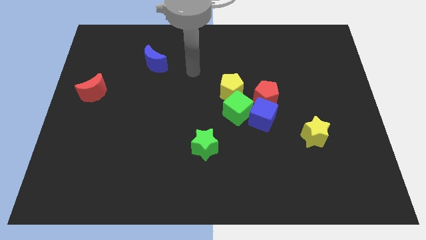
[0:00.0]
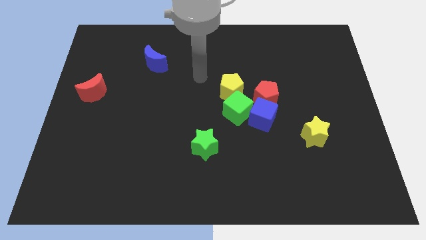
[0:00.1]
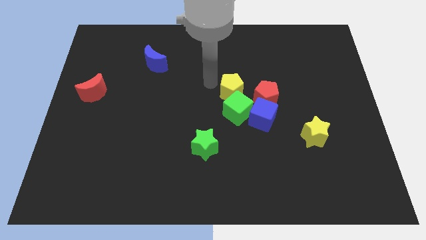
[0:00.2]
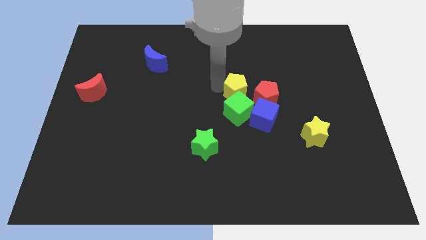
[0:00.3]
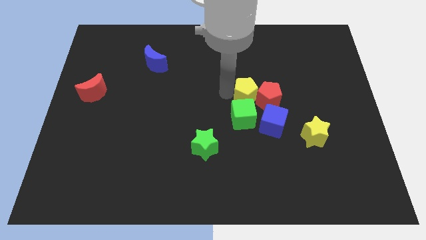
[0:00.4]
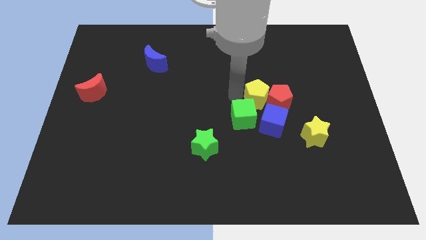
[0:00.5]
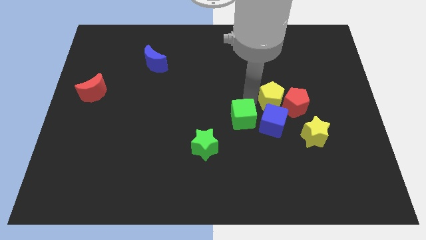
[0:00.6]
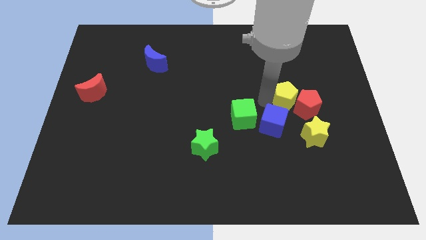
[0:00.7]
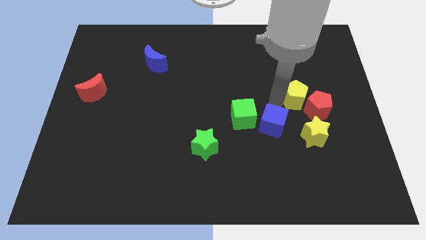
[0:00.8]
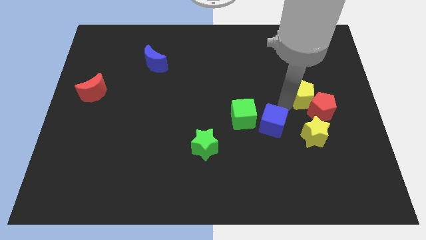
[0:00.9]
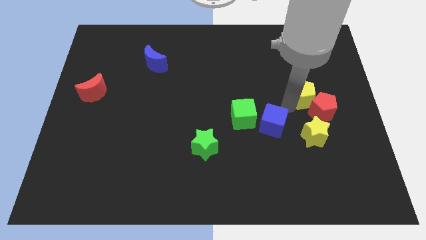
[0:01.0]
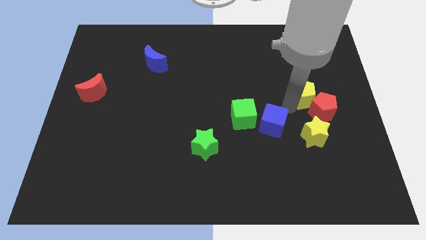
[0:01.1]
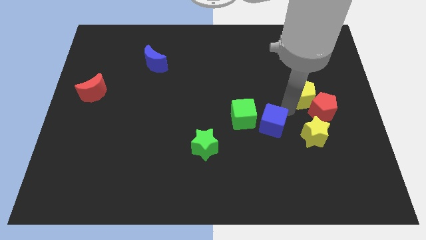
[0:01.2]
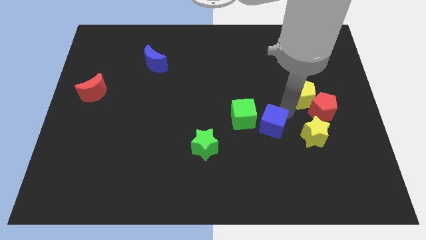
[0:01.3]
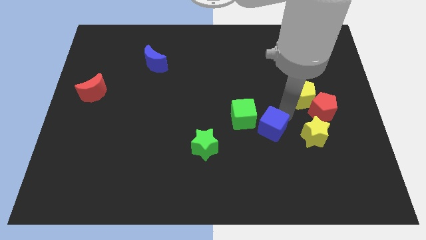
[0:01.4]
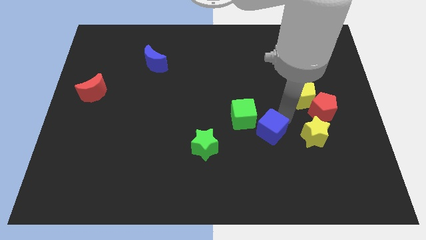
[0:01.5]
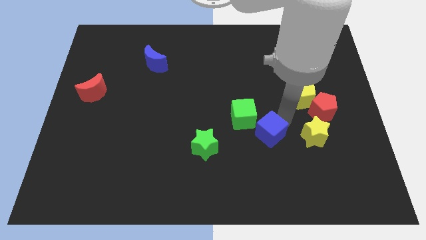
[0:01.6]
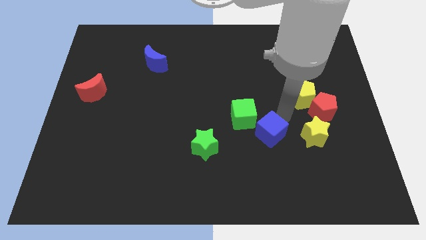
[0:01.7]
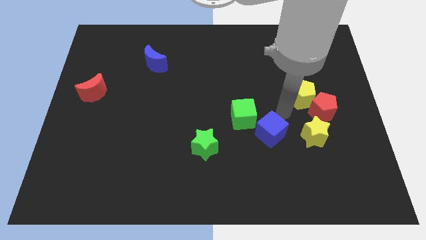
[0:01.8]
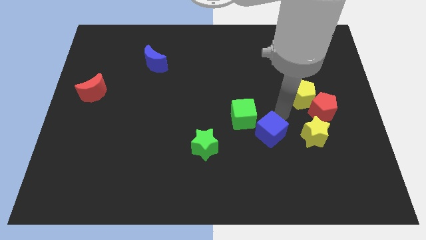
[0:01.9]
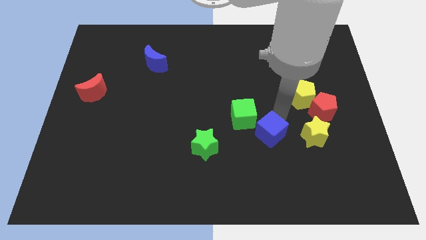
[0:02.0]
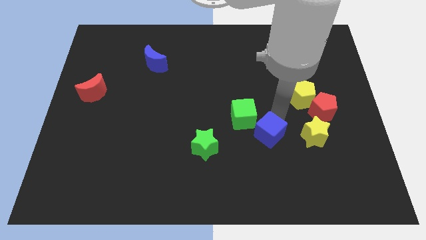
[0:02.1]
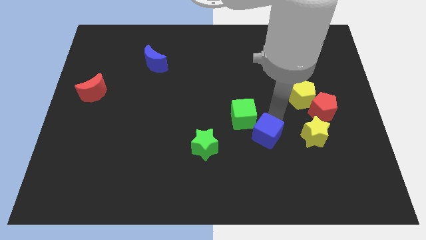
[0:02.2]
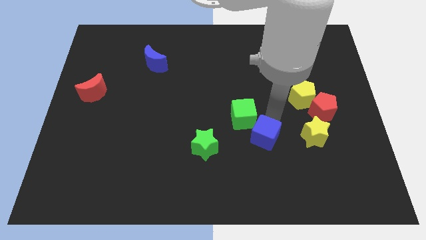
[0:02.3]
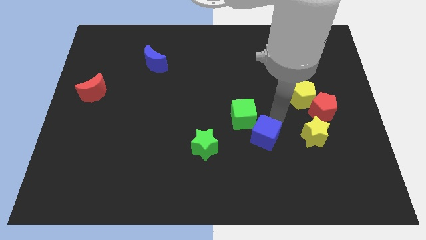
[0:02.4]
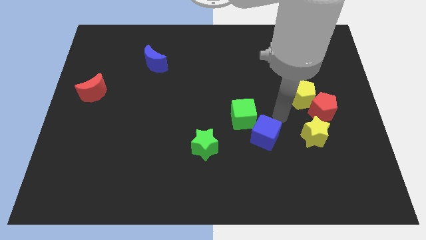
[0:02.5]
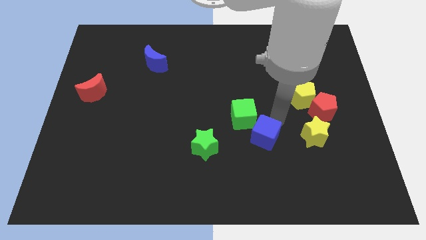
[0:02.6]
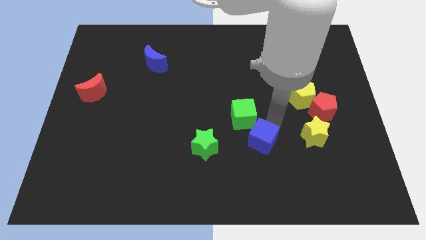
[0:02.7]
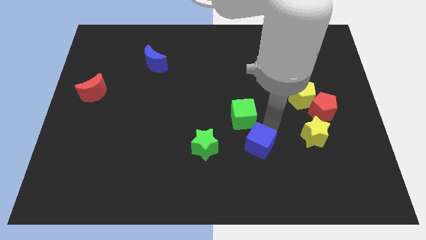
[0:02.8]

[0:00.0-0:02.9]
move the blue cube away from the red pentagon and green cube

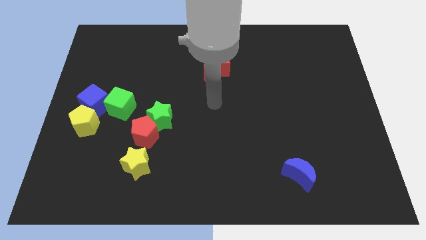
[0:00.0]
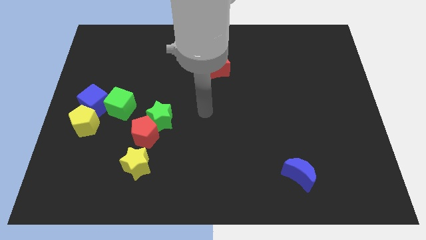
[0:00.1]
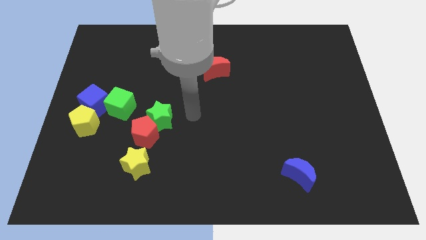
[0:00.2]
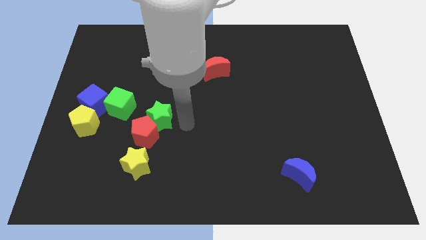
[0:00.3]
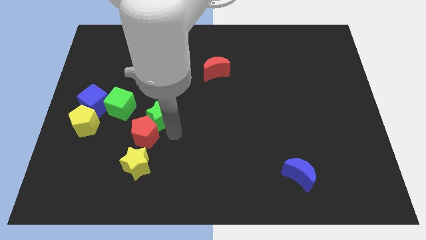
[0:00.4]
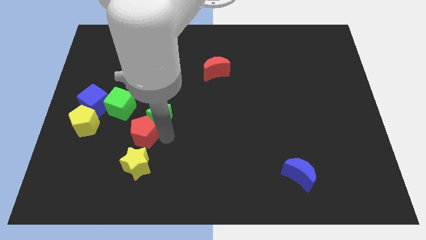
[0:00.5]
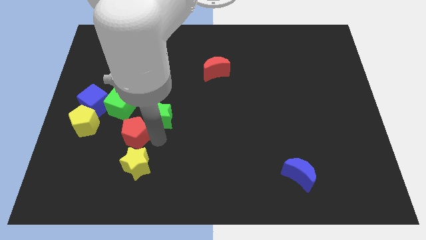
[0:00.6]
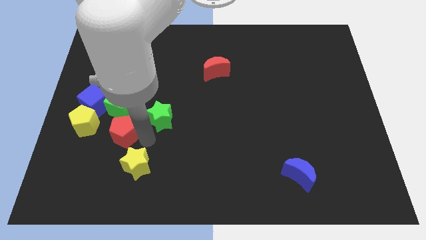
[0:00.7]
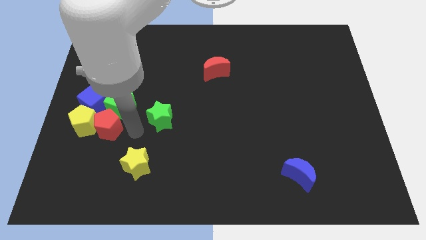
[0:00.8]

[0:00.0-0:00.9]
pull the green star apart from the red pentagon

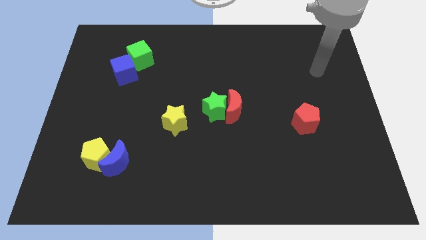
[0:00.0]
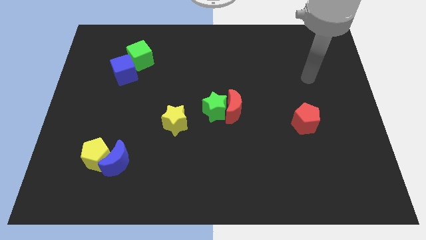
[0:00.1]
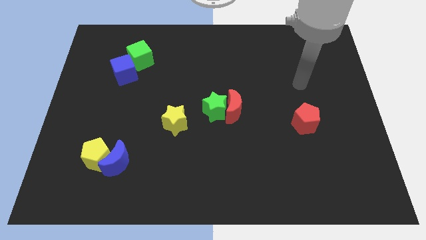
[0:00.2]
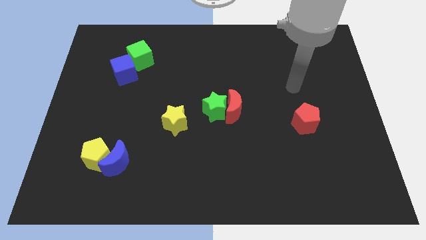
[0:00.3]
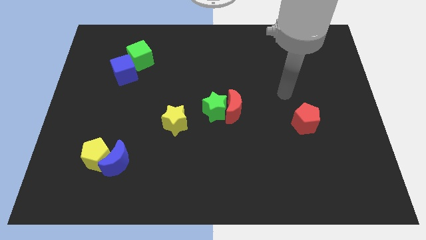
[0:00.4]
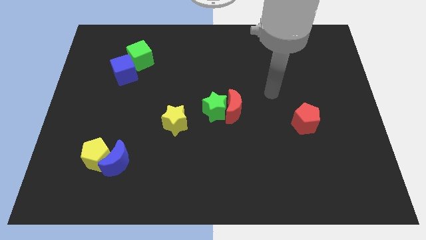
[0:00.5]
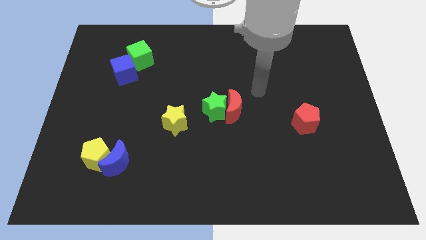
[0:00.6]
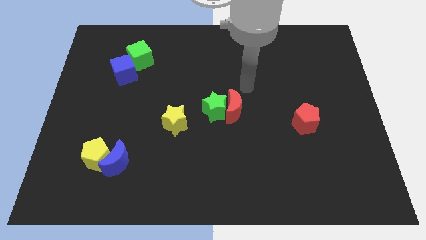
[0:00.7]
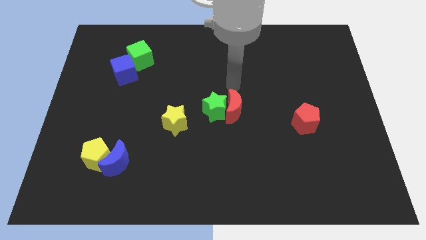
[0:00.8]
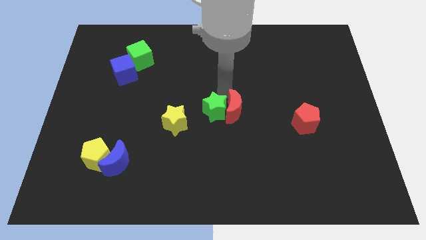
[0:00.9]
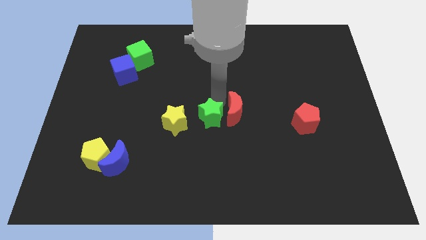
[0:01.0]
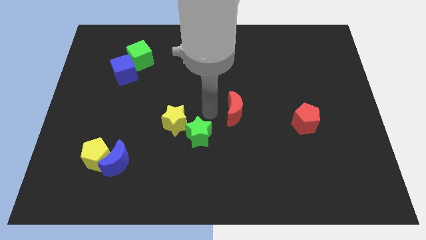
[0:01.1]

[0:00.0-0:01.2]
pull the red moon apart from the green star

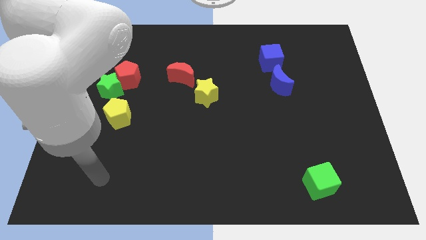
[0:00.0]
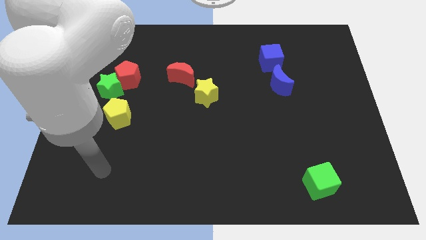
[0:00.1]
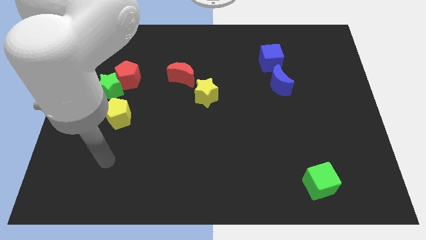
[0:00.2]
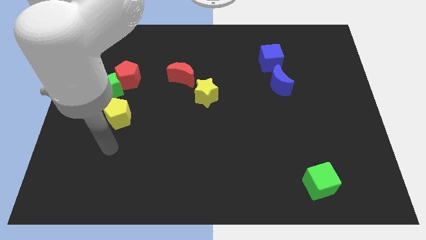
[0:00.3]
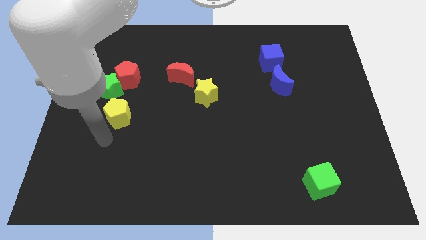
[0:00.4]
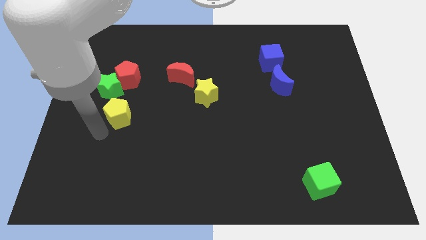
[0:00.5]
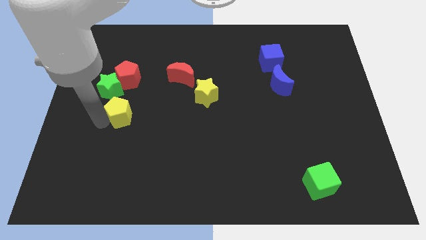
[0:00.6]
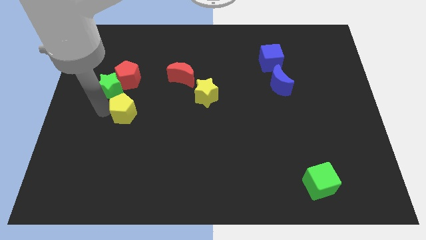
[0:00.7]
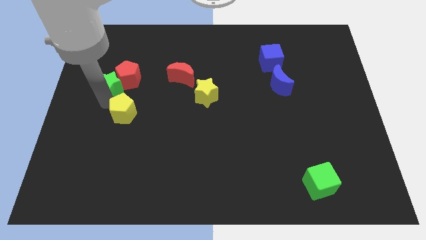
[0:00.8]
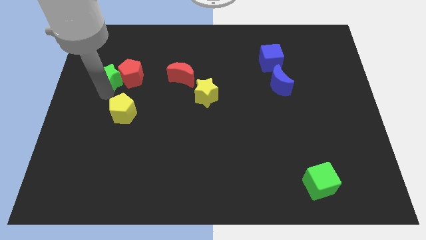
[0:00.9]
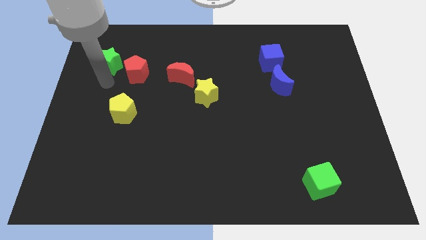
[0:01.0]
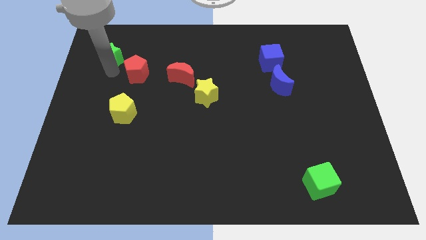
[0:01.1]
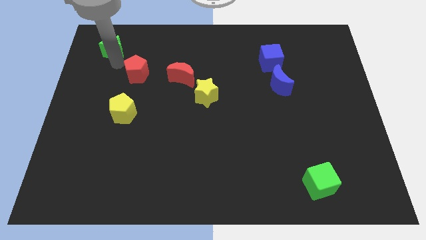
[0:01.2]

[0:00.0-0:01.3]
separate the red pentagon from the green star

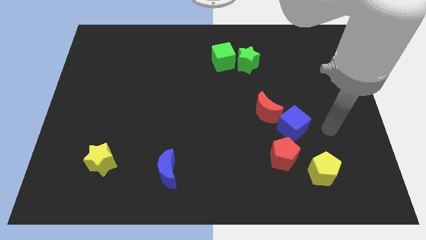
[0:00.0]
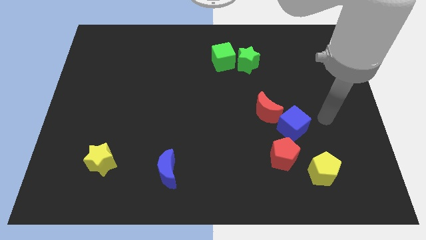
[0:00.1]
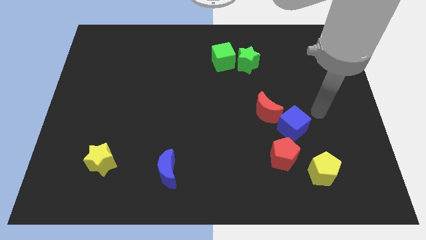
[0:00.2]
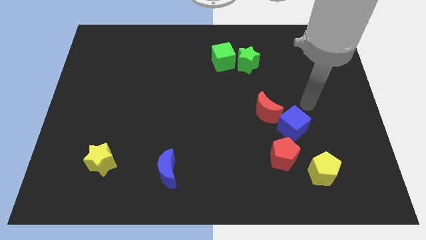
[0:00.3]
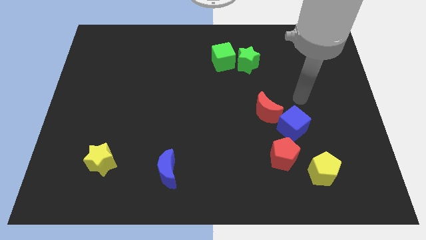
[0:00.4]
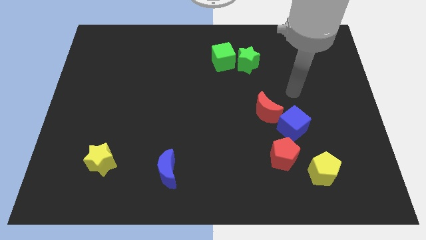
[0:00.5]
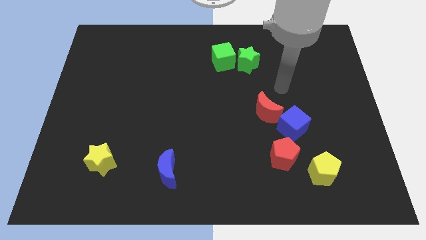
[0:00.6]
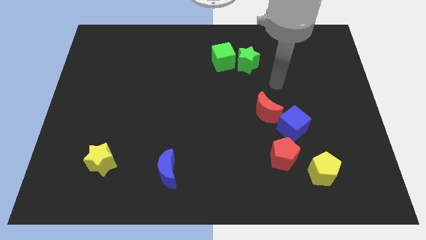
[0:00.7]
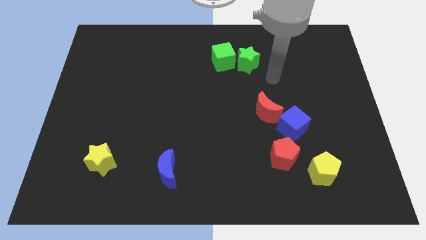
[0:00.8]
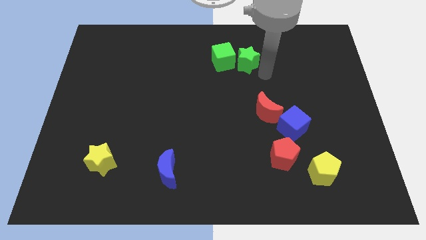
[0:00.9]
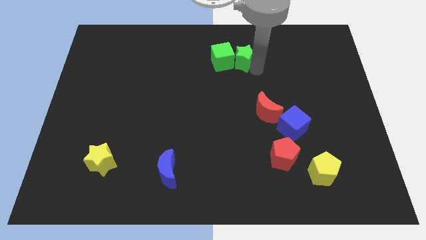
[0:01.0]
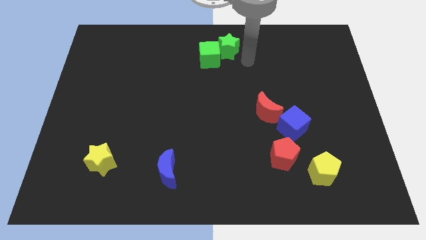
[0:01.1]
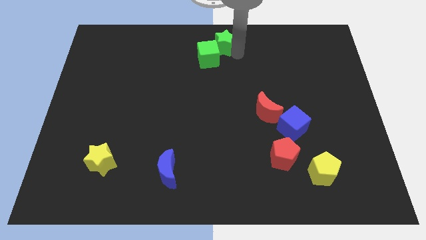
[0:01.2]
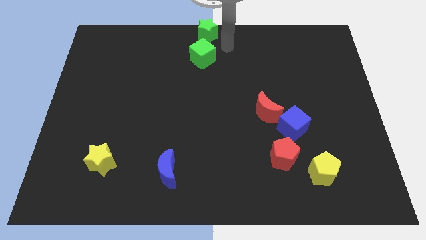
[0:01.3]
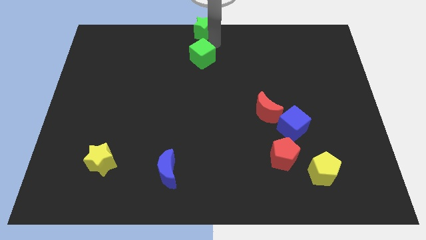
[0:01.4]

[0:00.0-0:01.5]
pull the green cube apart from the green star

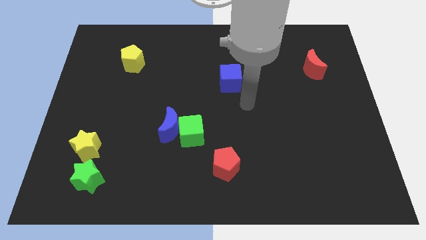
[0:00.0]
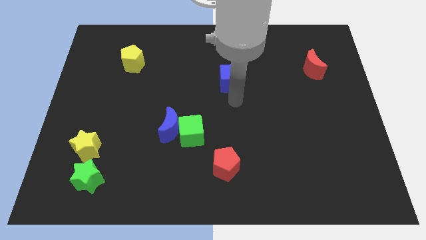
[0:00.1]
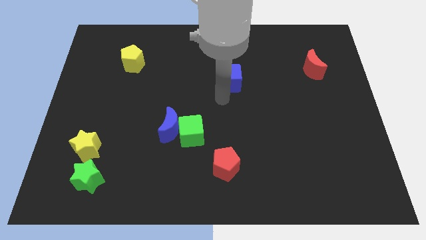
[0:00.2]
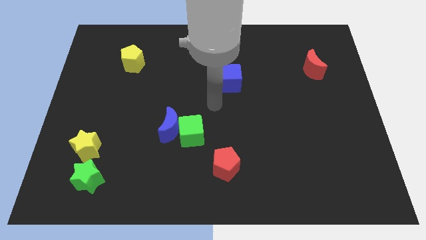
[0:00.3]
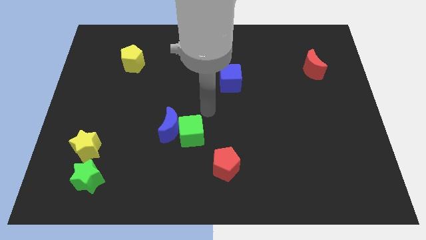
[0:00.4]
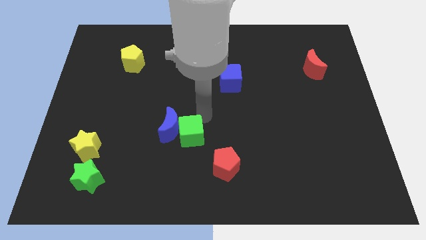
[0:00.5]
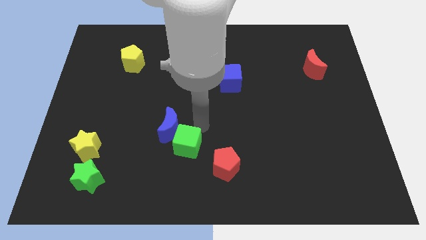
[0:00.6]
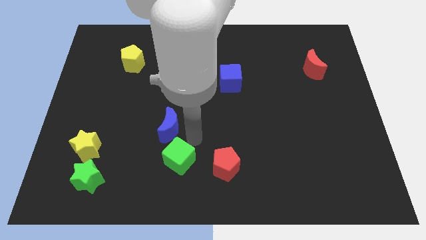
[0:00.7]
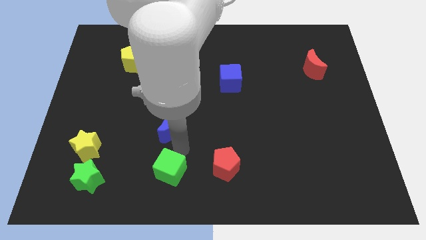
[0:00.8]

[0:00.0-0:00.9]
move the blue moon away from the green cube

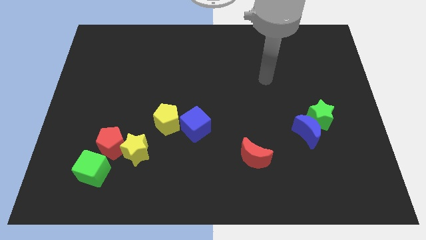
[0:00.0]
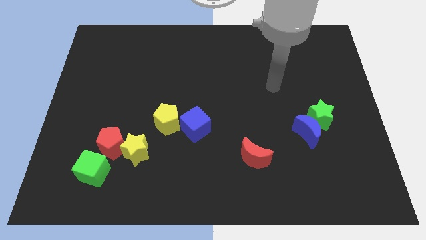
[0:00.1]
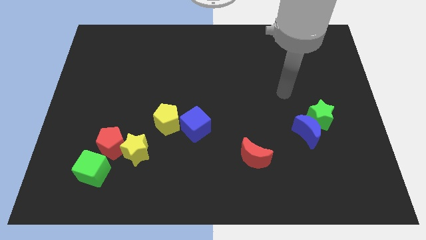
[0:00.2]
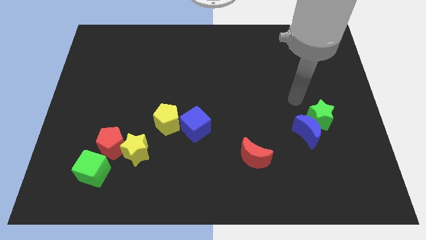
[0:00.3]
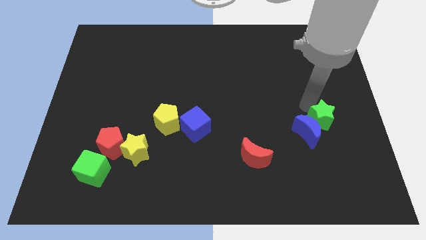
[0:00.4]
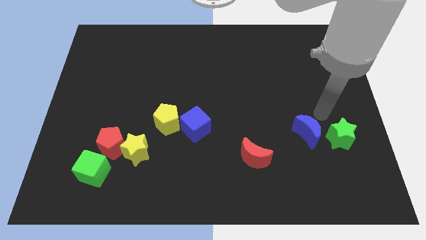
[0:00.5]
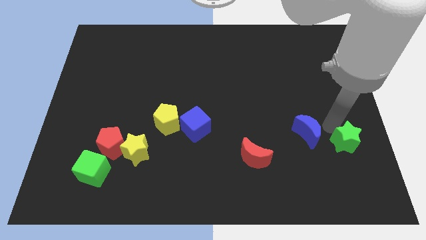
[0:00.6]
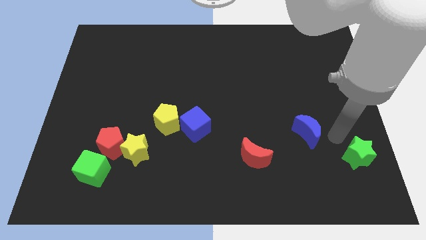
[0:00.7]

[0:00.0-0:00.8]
pull the blue moon apart from the green star
